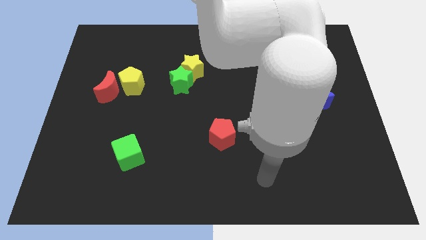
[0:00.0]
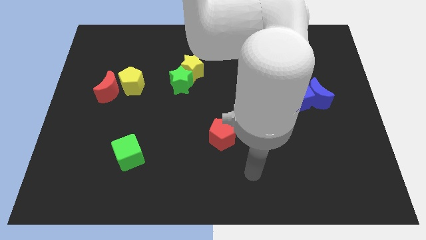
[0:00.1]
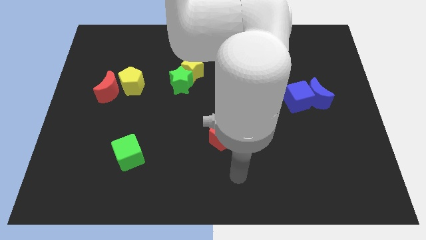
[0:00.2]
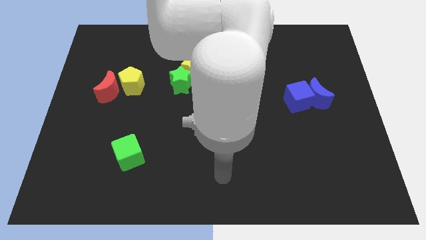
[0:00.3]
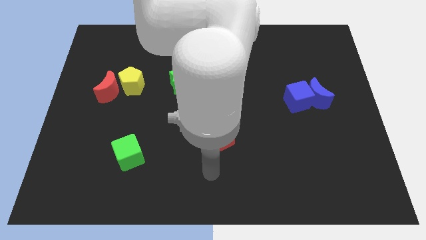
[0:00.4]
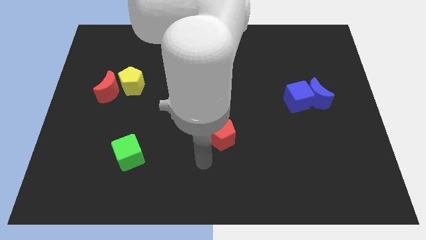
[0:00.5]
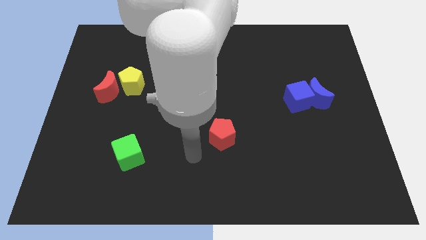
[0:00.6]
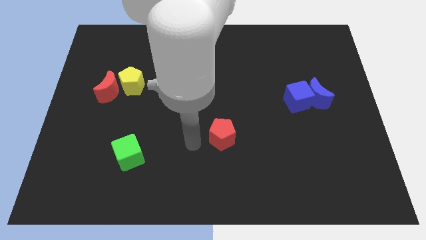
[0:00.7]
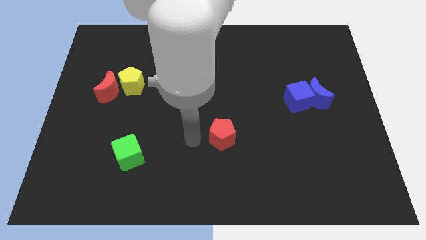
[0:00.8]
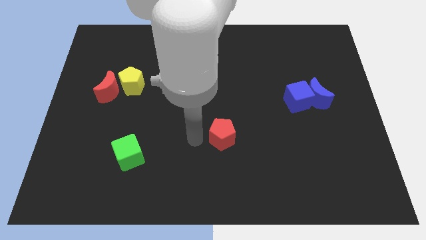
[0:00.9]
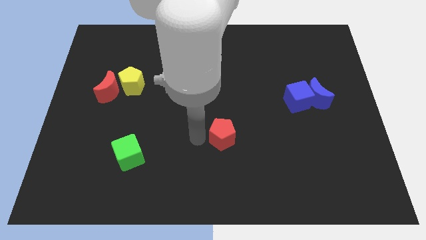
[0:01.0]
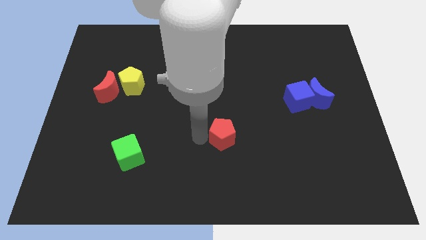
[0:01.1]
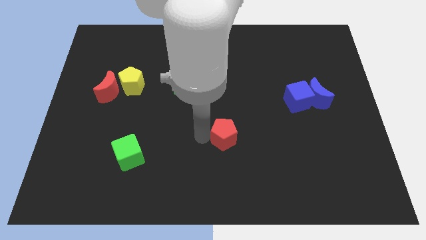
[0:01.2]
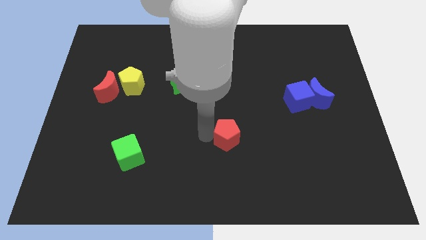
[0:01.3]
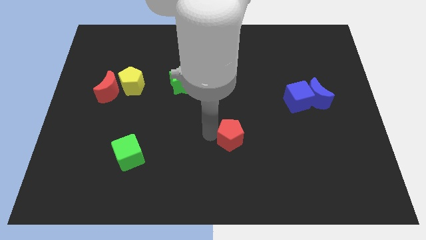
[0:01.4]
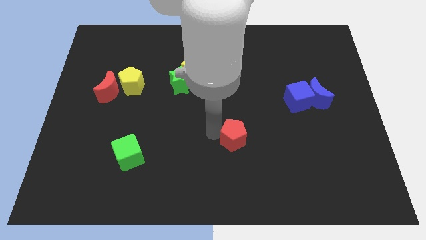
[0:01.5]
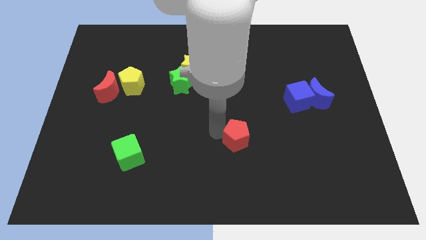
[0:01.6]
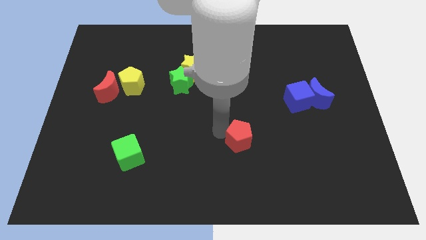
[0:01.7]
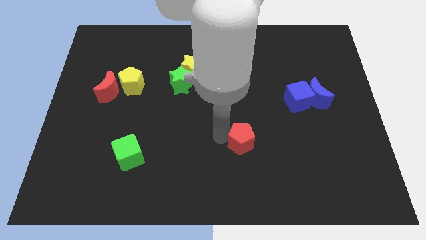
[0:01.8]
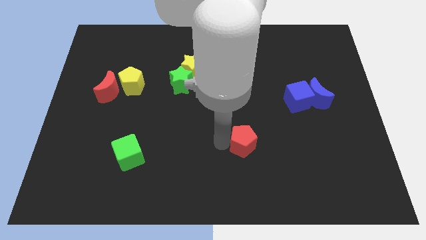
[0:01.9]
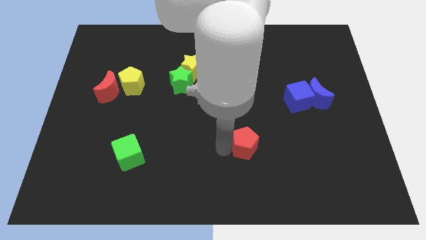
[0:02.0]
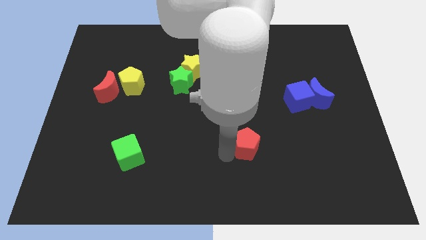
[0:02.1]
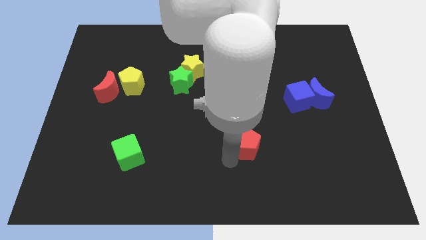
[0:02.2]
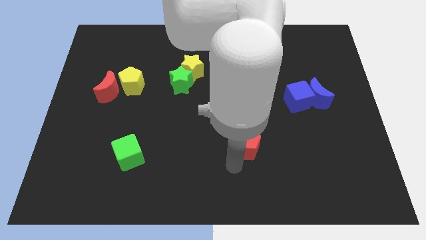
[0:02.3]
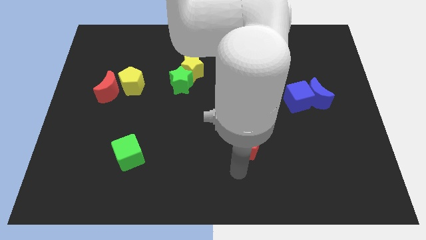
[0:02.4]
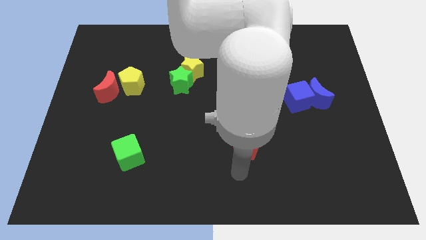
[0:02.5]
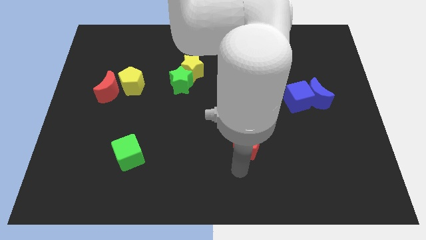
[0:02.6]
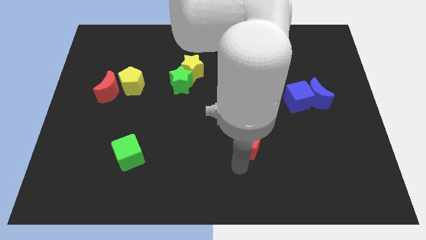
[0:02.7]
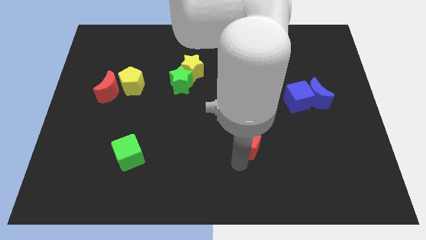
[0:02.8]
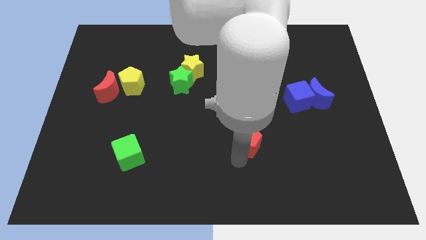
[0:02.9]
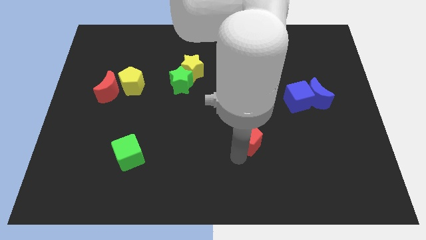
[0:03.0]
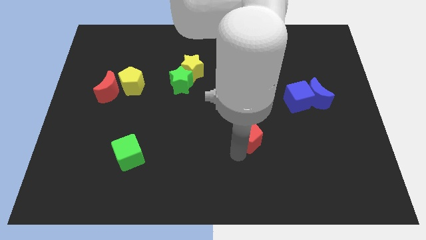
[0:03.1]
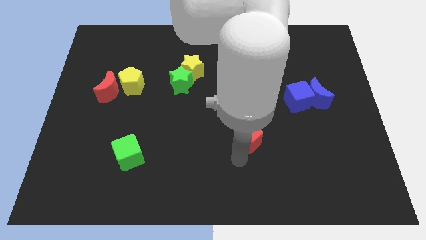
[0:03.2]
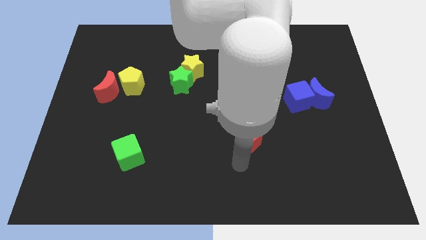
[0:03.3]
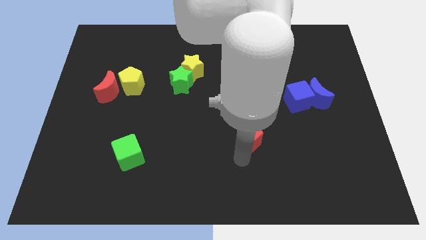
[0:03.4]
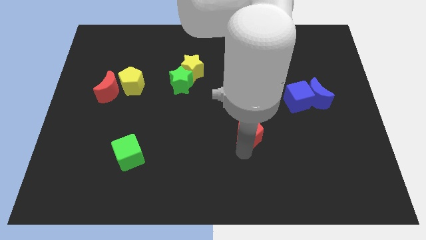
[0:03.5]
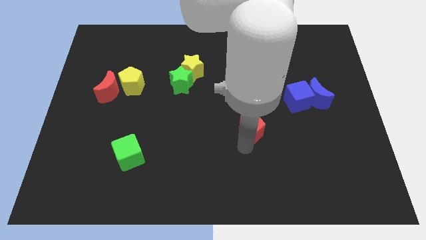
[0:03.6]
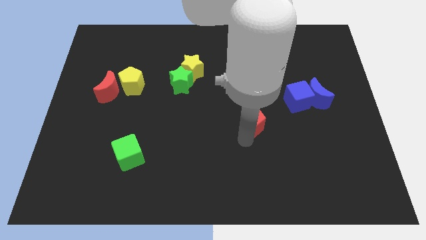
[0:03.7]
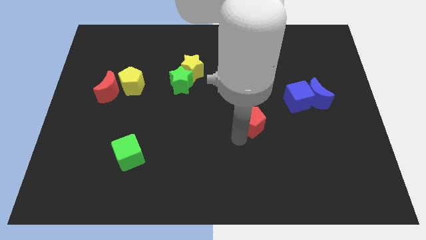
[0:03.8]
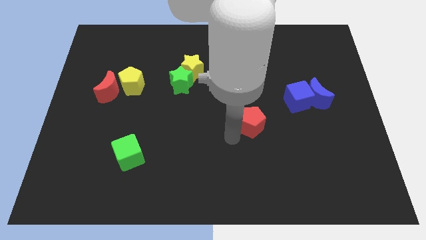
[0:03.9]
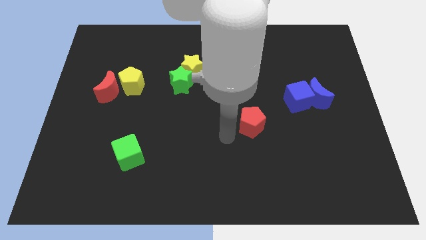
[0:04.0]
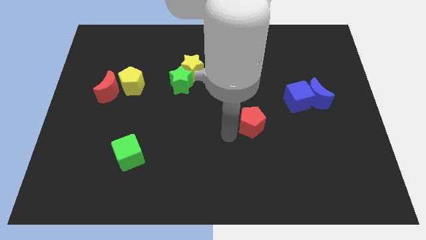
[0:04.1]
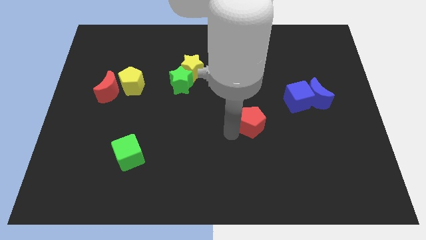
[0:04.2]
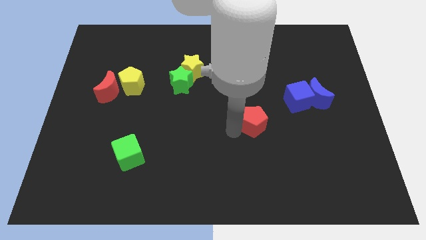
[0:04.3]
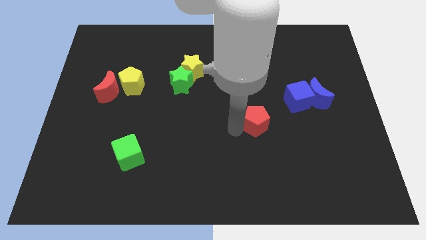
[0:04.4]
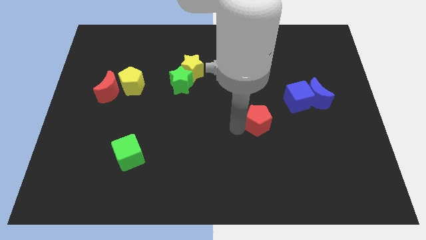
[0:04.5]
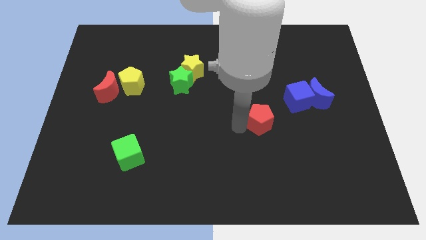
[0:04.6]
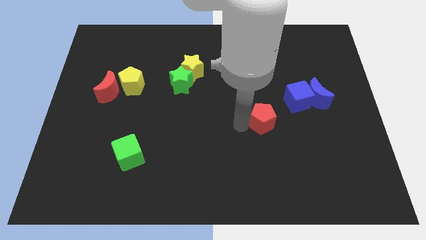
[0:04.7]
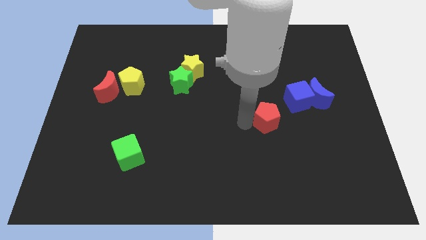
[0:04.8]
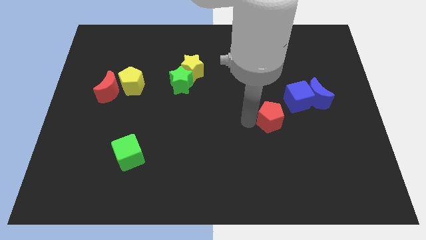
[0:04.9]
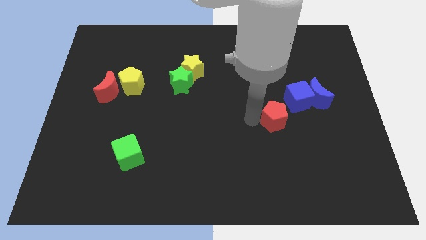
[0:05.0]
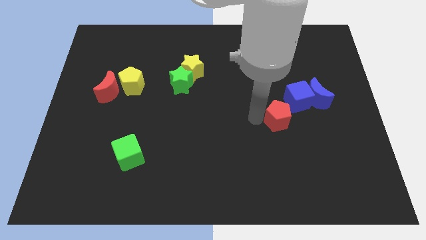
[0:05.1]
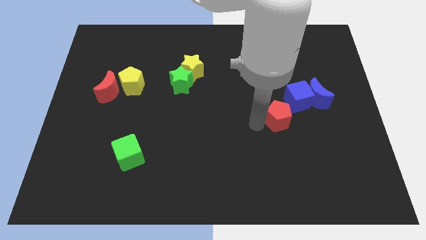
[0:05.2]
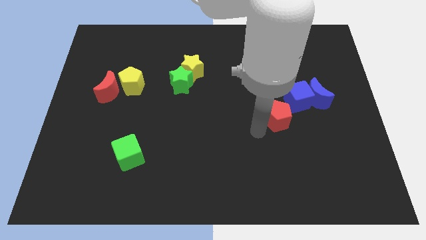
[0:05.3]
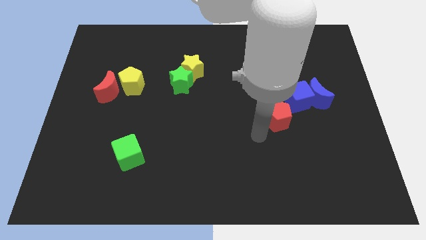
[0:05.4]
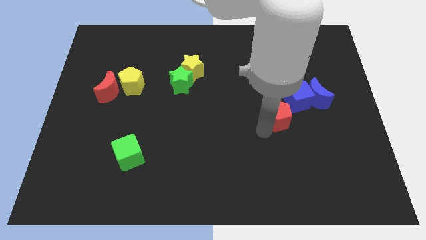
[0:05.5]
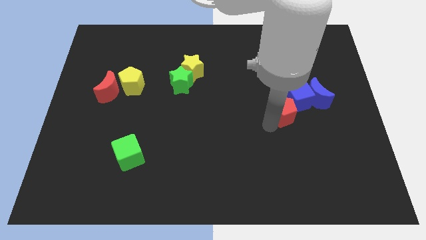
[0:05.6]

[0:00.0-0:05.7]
move the red pentagon close to the blue cube

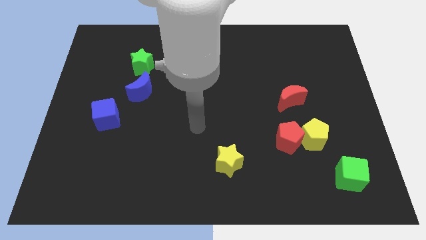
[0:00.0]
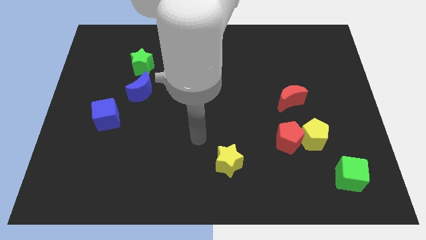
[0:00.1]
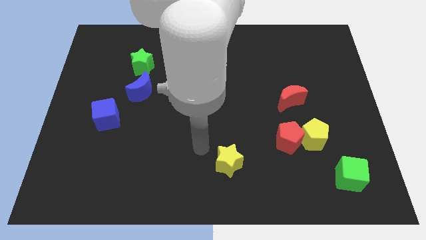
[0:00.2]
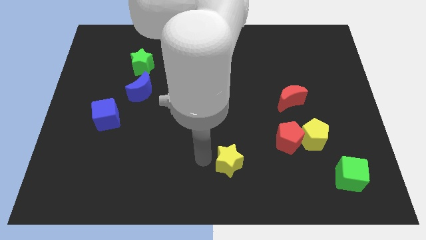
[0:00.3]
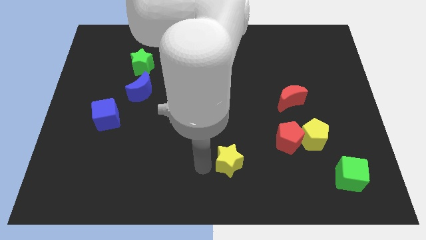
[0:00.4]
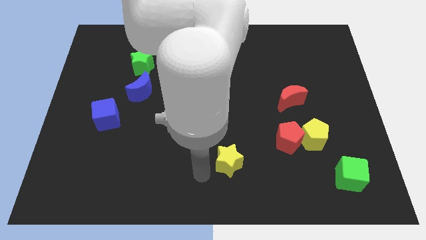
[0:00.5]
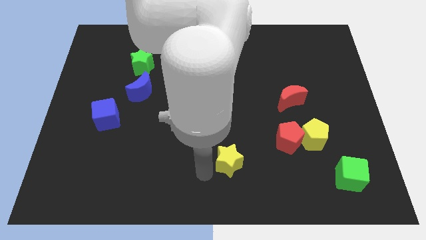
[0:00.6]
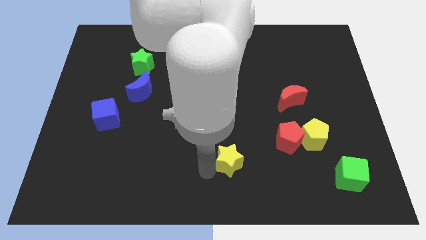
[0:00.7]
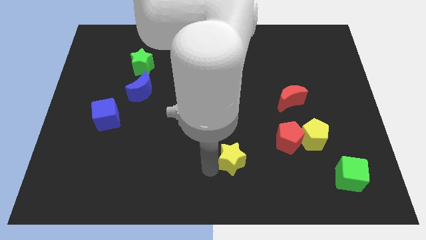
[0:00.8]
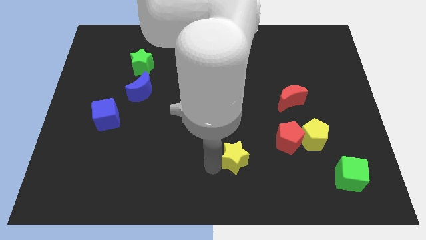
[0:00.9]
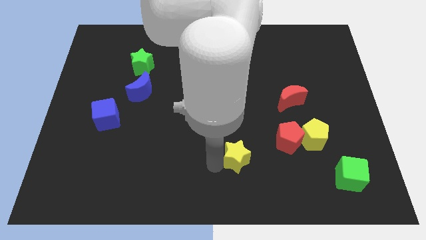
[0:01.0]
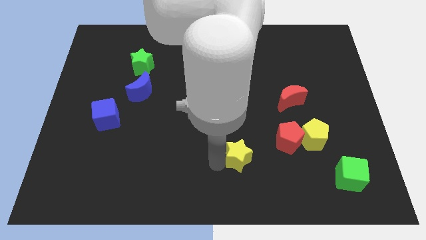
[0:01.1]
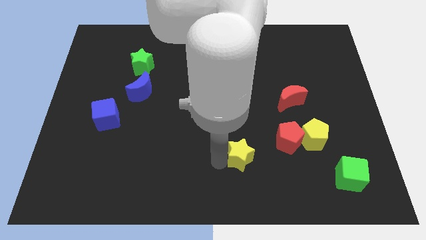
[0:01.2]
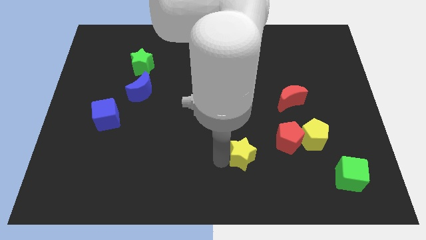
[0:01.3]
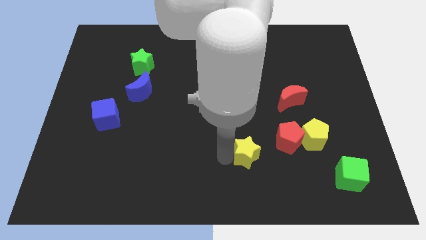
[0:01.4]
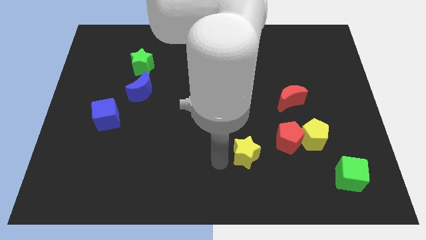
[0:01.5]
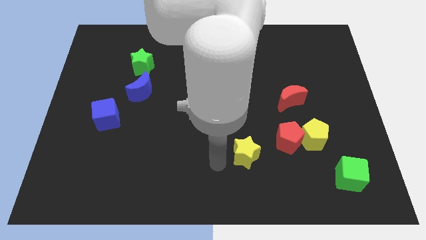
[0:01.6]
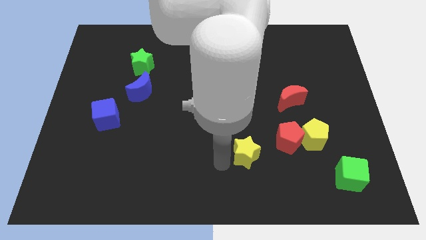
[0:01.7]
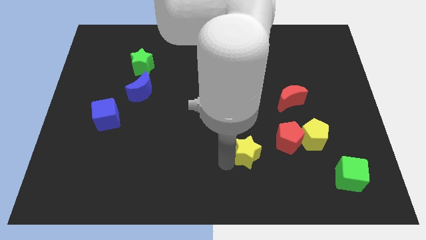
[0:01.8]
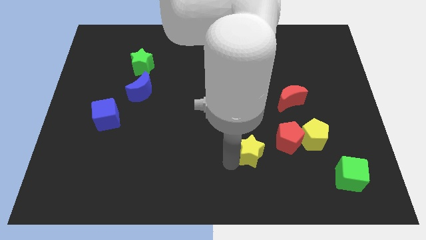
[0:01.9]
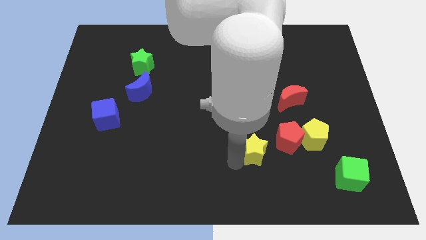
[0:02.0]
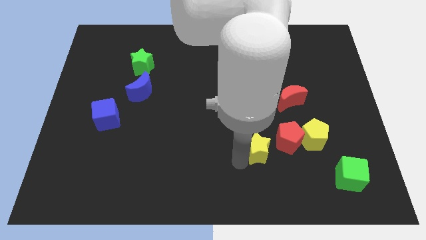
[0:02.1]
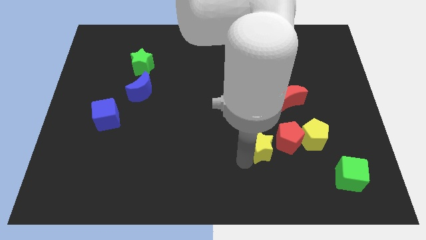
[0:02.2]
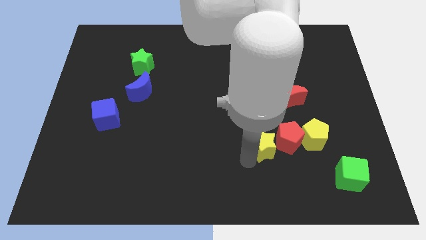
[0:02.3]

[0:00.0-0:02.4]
put the yellow star towards the red pentagon
